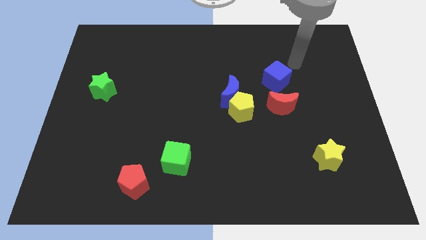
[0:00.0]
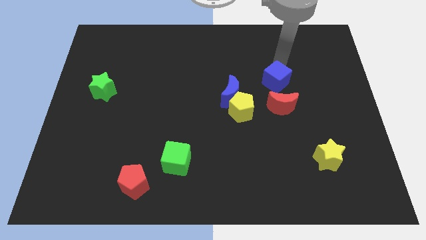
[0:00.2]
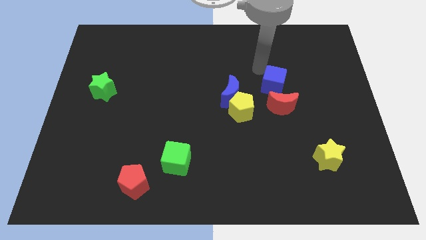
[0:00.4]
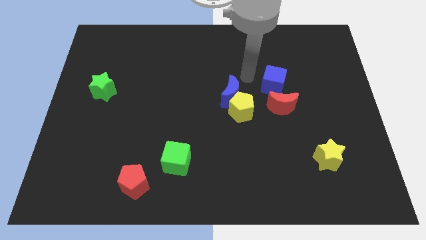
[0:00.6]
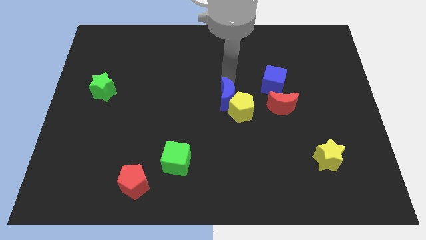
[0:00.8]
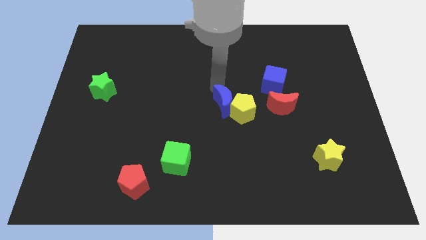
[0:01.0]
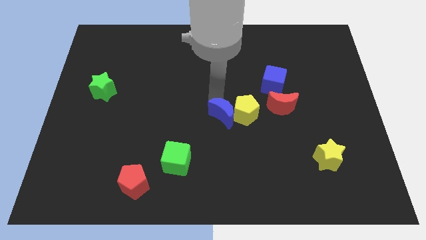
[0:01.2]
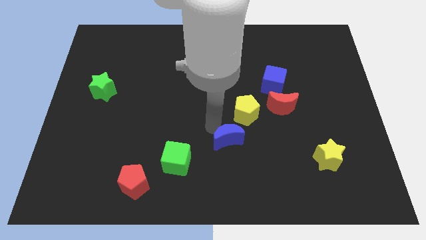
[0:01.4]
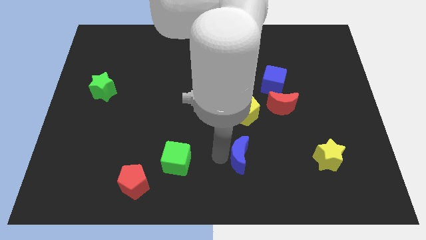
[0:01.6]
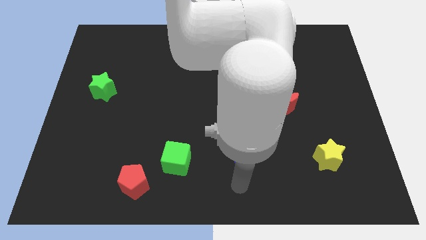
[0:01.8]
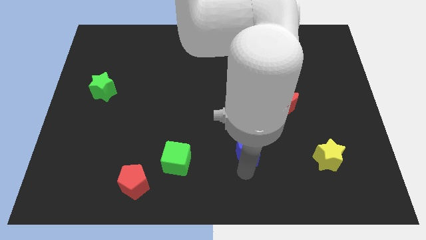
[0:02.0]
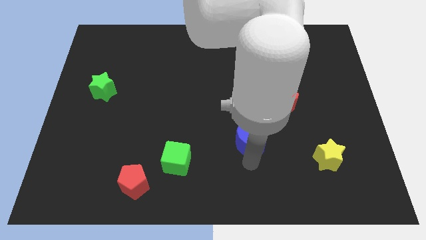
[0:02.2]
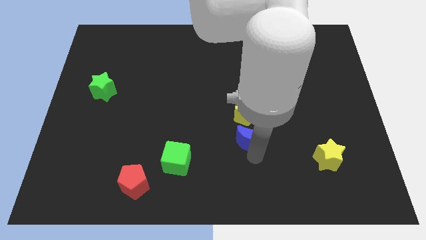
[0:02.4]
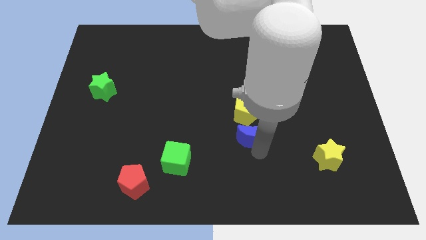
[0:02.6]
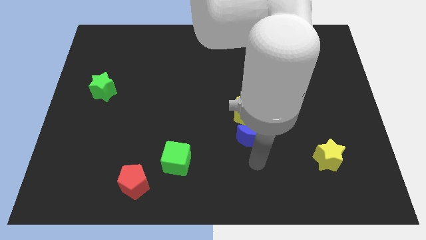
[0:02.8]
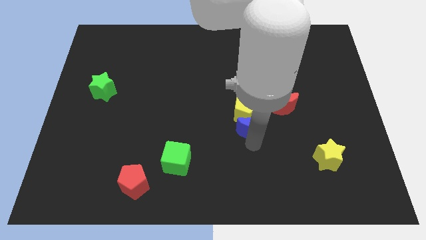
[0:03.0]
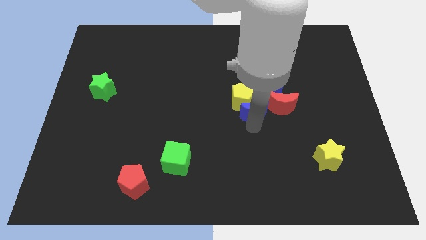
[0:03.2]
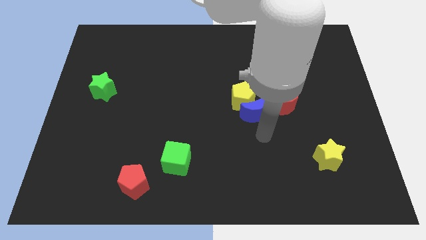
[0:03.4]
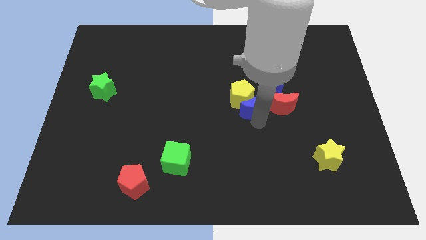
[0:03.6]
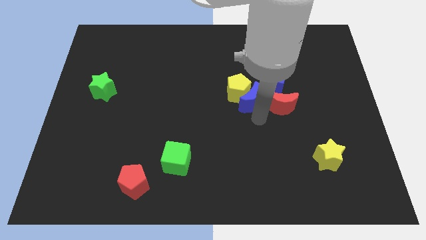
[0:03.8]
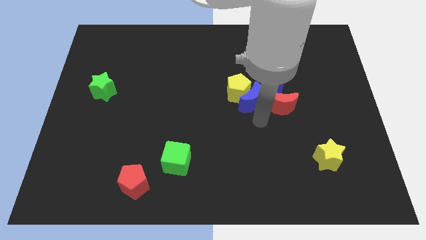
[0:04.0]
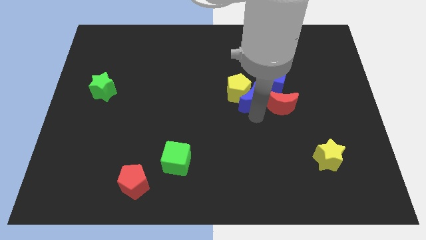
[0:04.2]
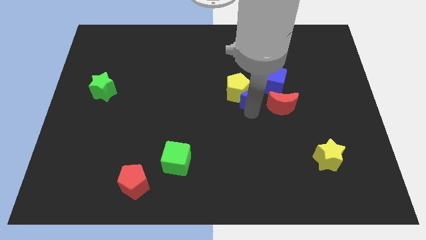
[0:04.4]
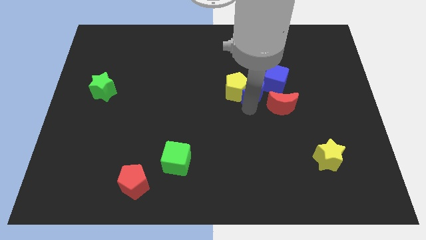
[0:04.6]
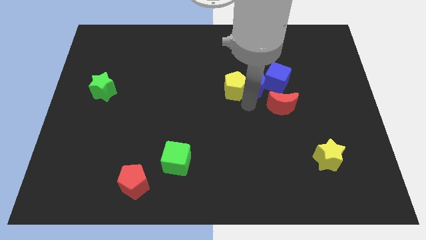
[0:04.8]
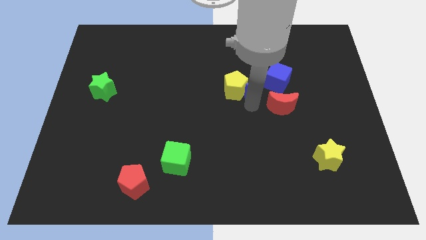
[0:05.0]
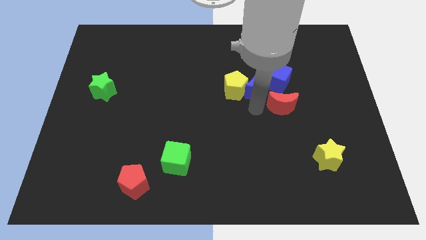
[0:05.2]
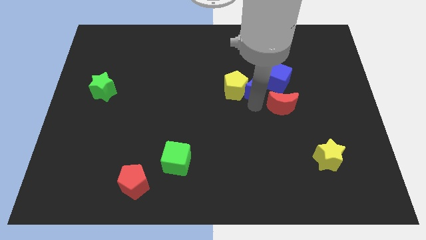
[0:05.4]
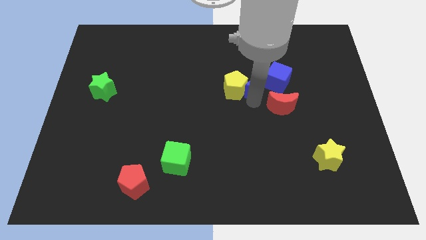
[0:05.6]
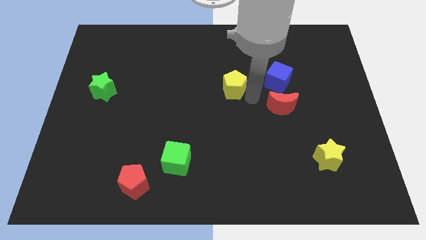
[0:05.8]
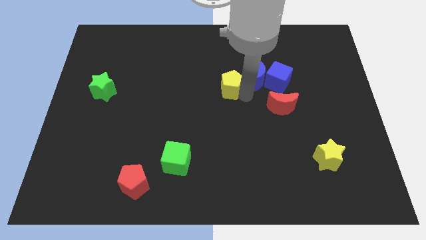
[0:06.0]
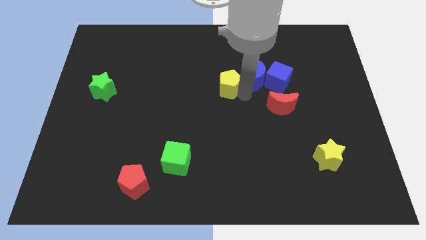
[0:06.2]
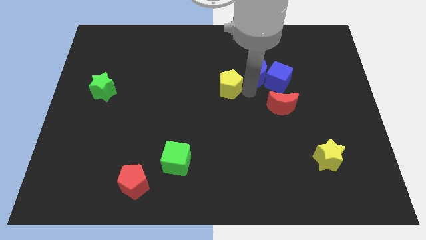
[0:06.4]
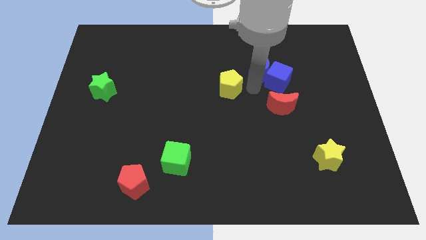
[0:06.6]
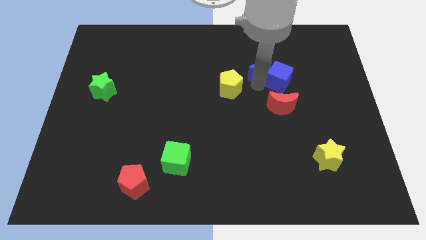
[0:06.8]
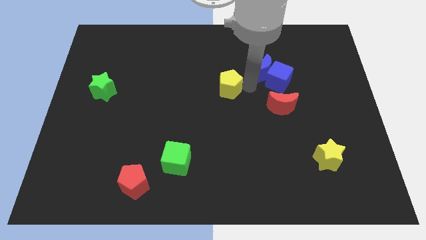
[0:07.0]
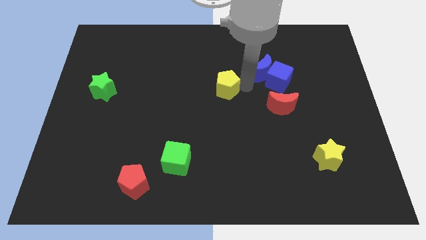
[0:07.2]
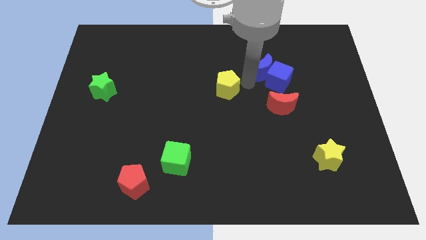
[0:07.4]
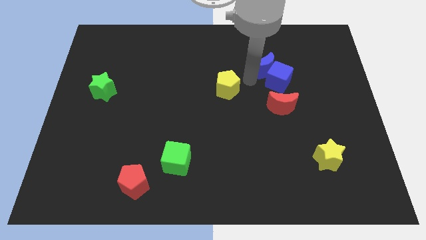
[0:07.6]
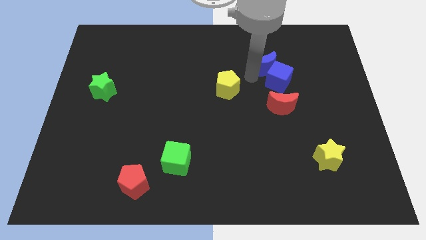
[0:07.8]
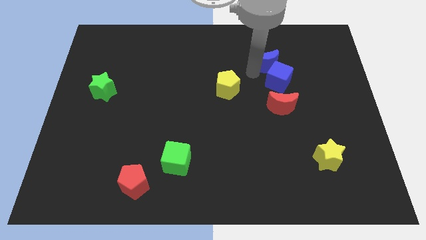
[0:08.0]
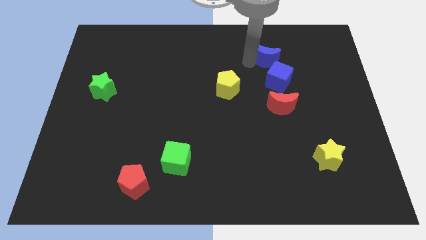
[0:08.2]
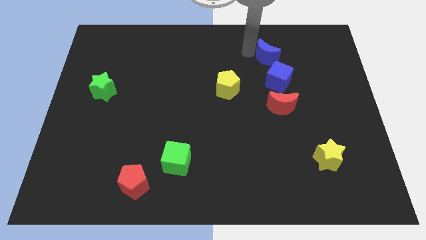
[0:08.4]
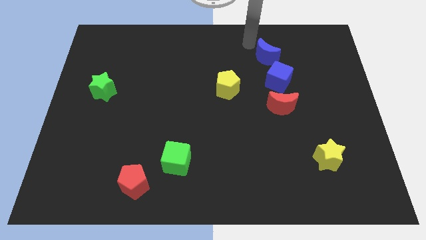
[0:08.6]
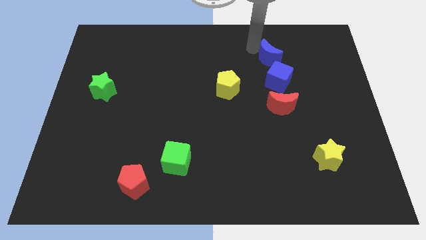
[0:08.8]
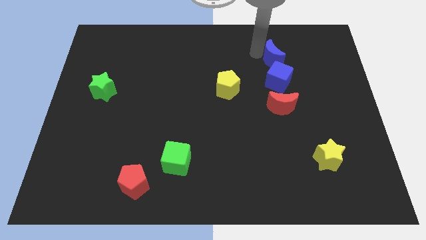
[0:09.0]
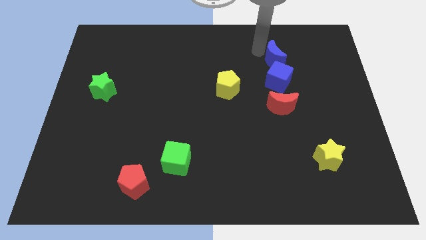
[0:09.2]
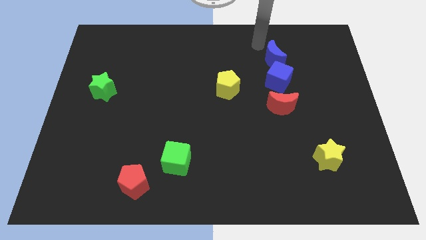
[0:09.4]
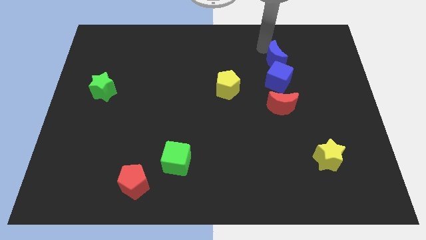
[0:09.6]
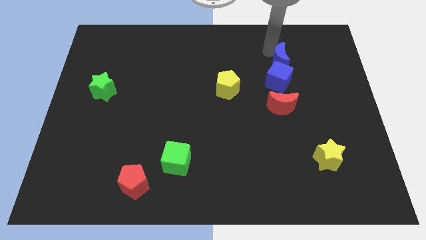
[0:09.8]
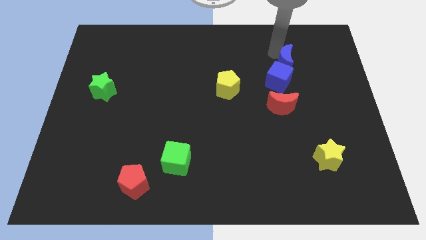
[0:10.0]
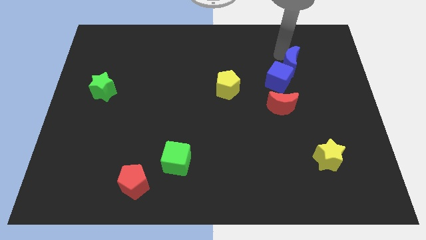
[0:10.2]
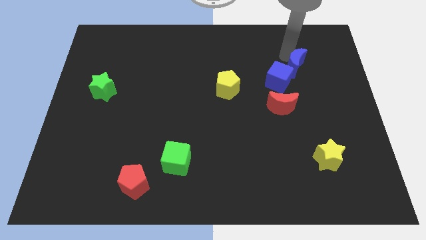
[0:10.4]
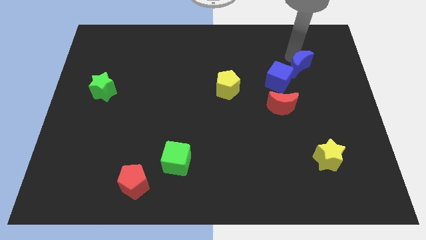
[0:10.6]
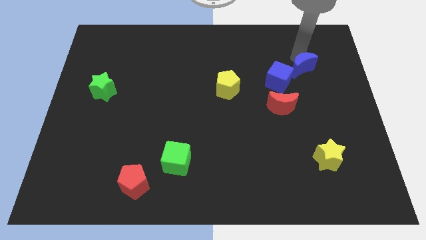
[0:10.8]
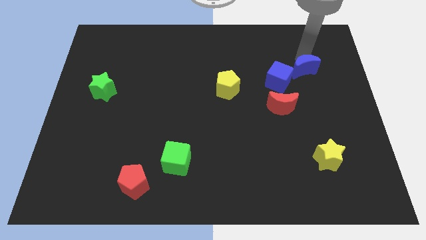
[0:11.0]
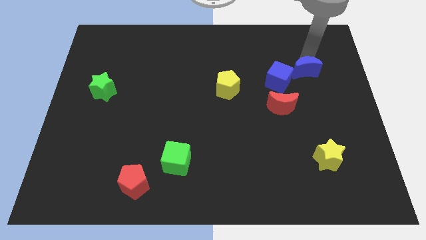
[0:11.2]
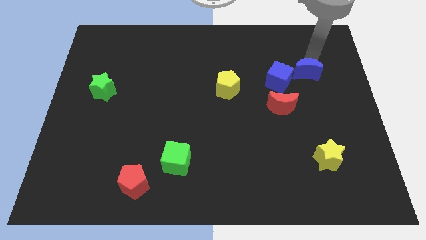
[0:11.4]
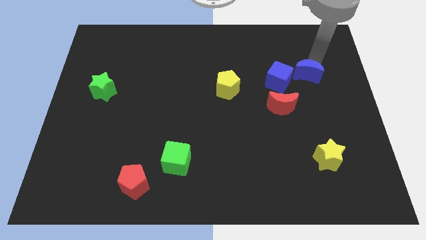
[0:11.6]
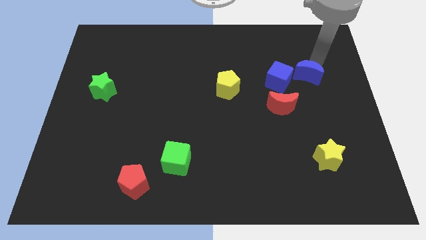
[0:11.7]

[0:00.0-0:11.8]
slide the blue moon to the top right of the red moon

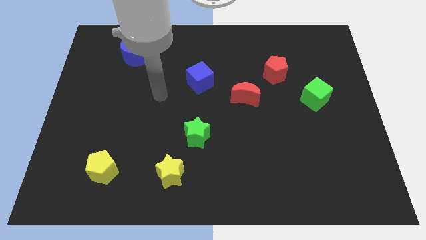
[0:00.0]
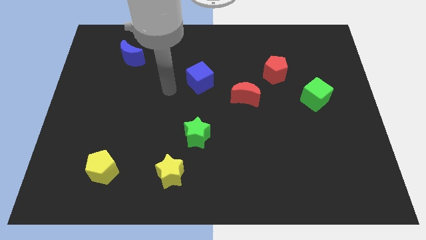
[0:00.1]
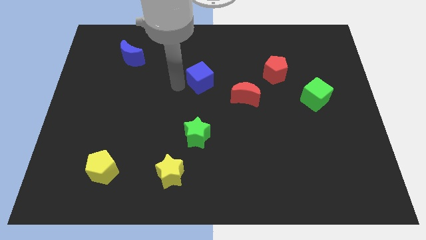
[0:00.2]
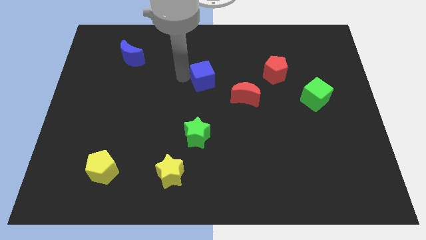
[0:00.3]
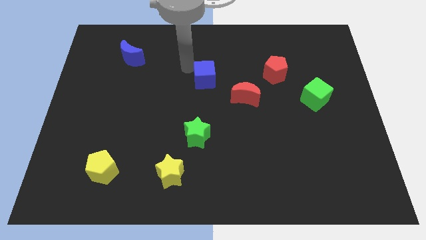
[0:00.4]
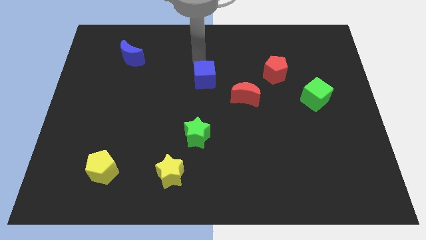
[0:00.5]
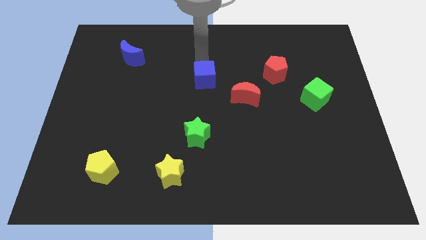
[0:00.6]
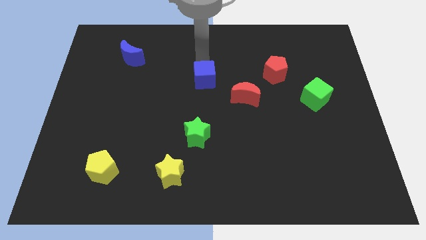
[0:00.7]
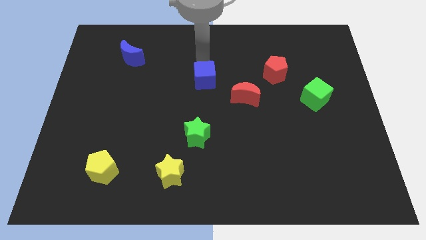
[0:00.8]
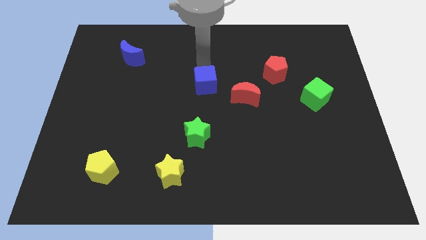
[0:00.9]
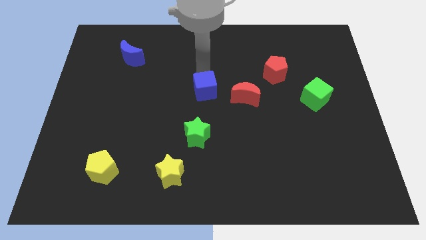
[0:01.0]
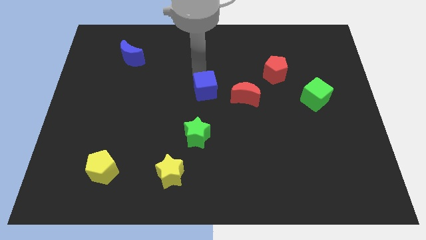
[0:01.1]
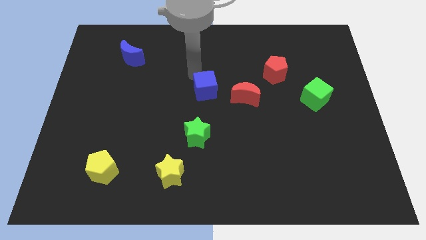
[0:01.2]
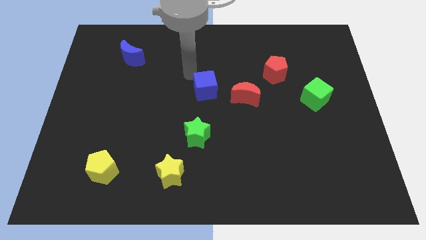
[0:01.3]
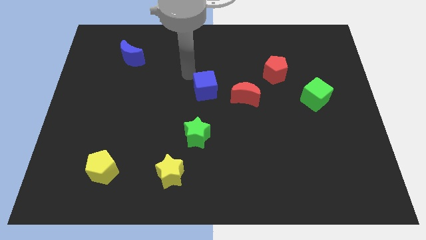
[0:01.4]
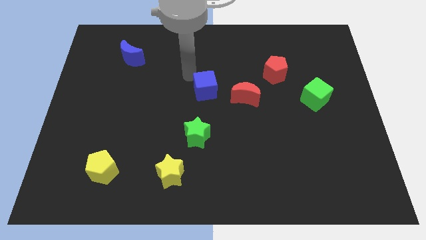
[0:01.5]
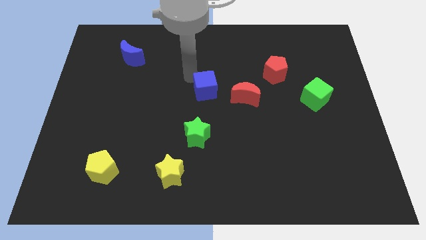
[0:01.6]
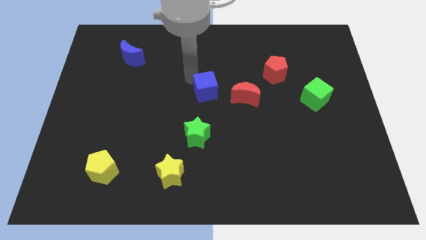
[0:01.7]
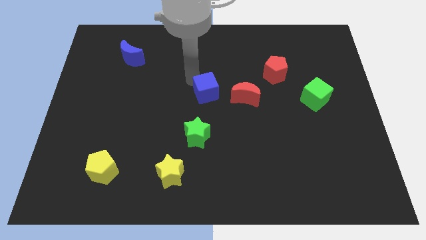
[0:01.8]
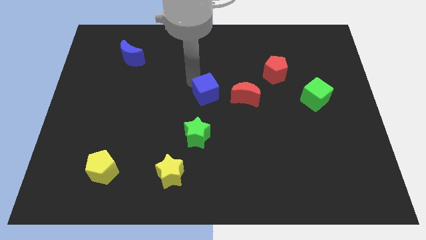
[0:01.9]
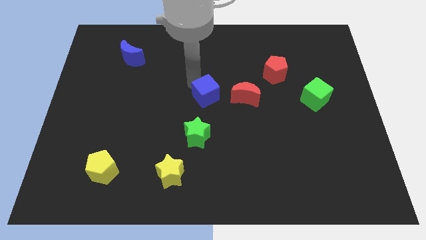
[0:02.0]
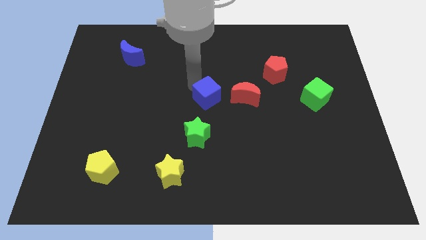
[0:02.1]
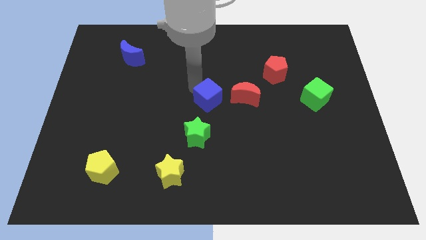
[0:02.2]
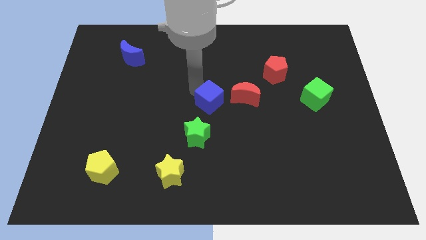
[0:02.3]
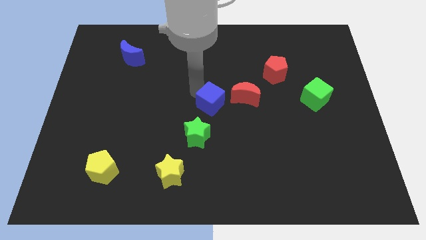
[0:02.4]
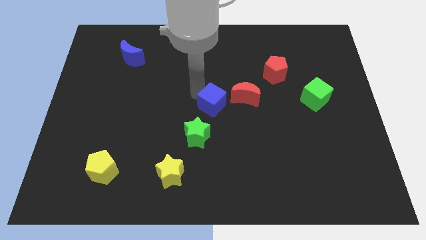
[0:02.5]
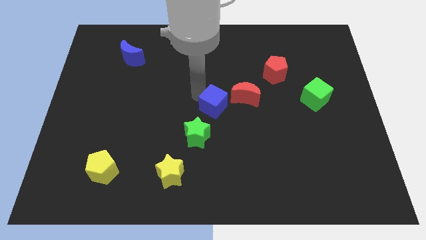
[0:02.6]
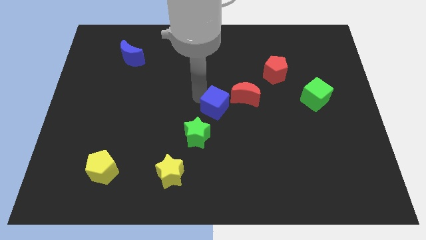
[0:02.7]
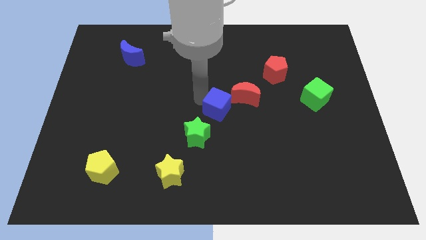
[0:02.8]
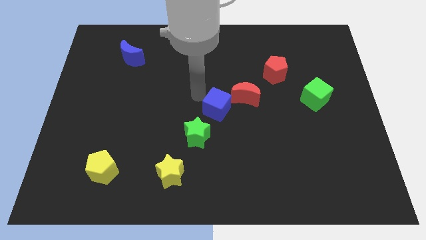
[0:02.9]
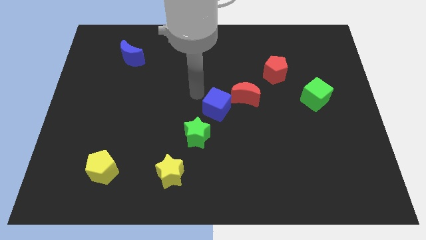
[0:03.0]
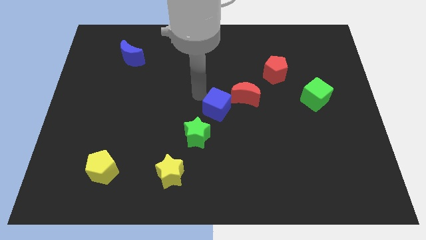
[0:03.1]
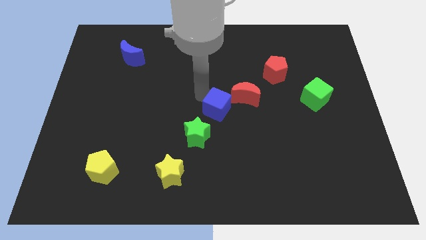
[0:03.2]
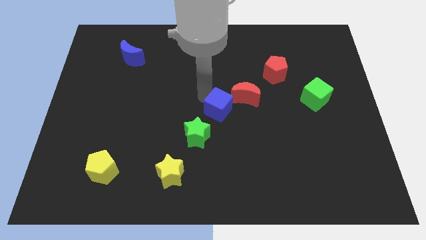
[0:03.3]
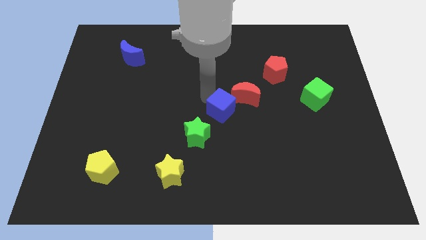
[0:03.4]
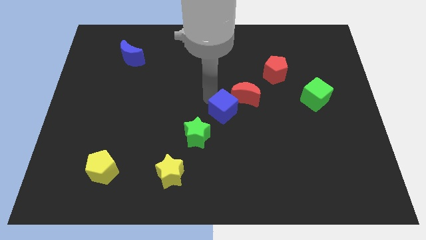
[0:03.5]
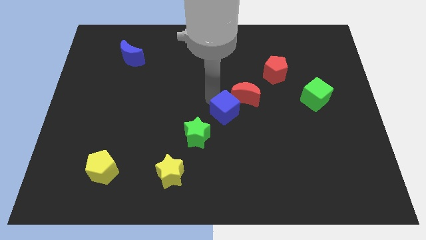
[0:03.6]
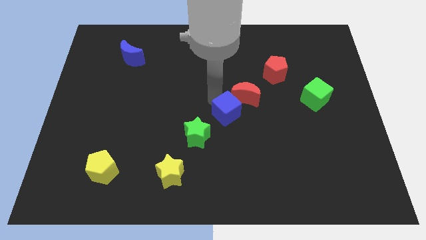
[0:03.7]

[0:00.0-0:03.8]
push the blue cube to the bottom side of the red moon
